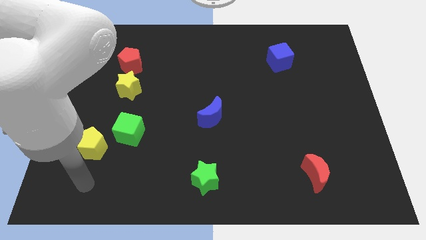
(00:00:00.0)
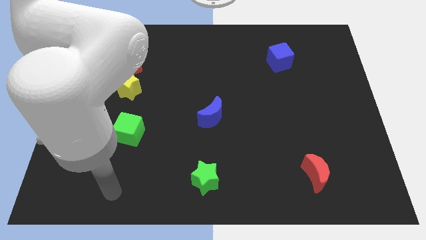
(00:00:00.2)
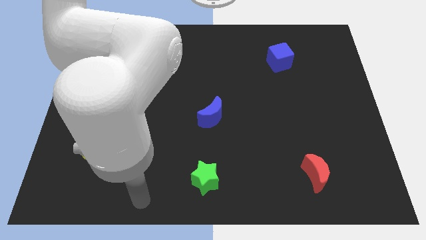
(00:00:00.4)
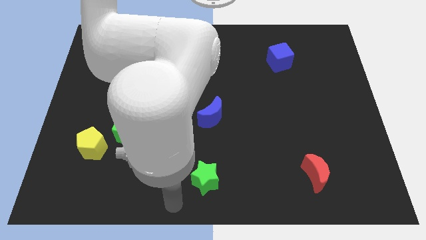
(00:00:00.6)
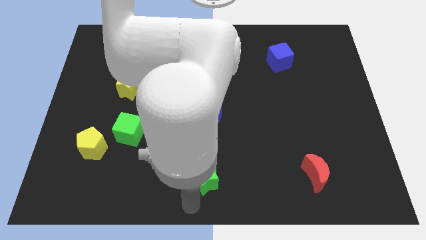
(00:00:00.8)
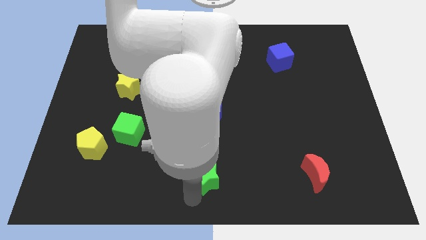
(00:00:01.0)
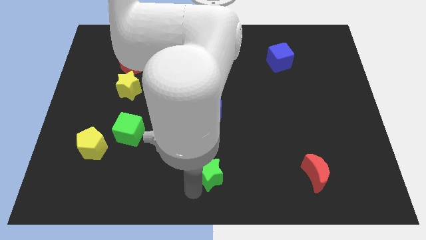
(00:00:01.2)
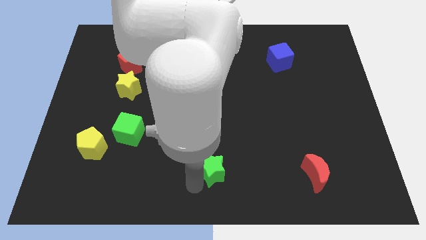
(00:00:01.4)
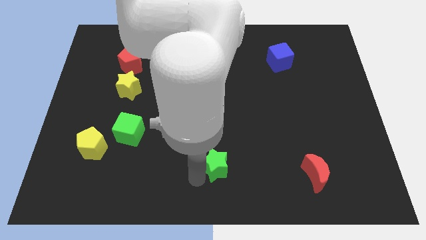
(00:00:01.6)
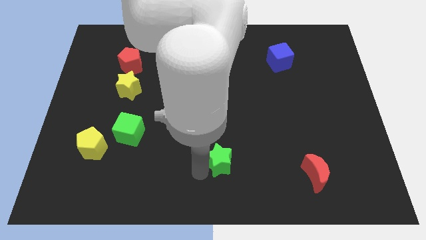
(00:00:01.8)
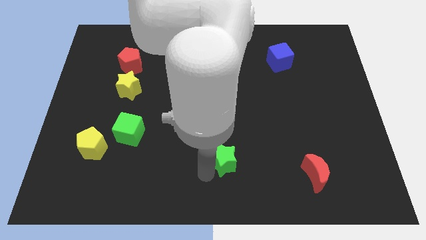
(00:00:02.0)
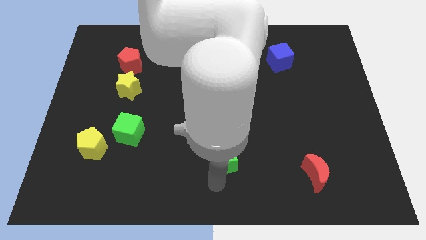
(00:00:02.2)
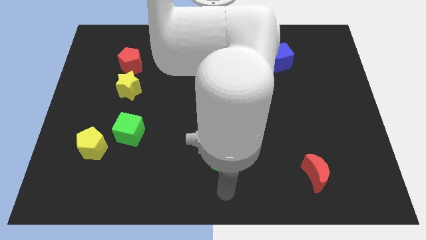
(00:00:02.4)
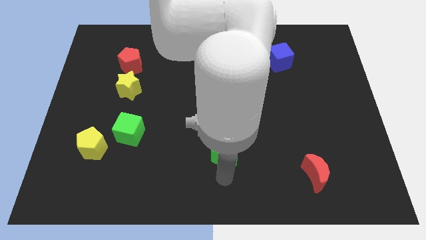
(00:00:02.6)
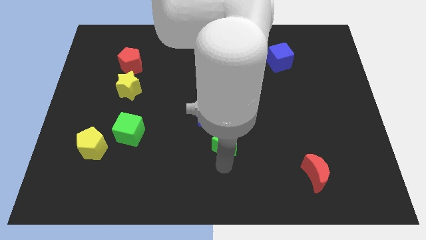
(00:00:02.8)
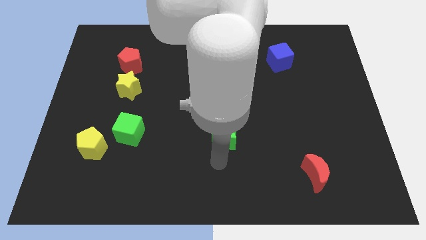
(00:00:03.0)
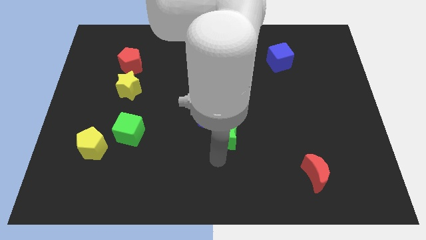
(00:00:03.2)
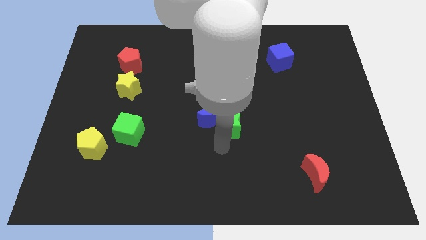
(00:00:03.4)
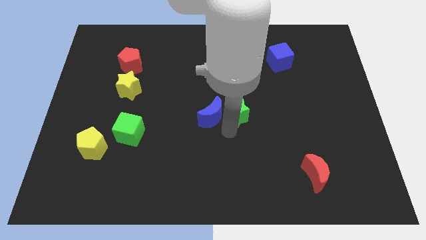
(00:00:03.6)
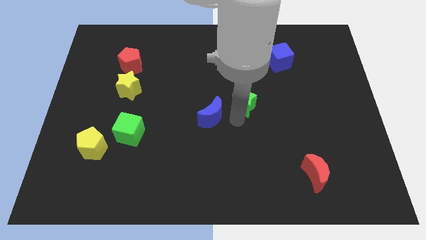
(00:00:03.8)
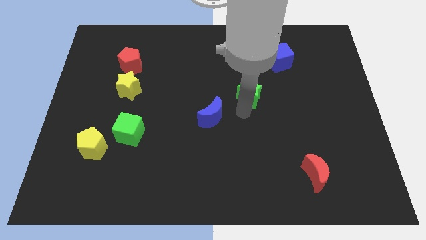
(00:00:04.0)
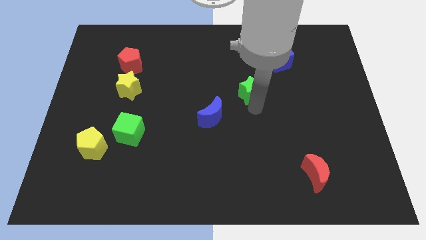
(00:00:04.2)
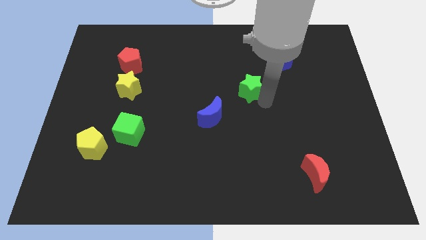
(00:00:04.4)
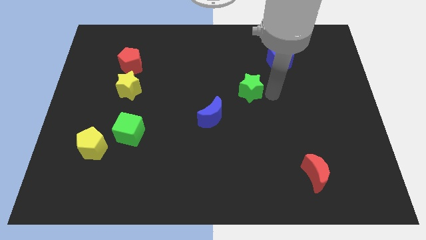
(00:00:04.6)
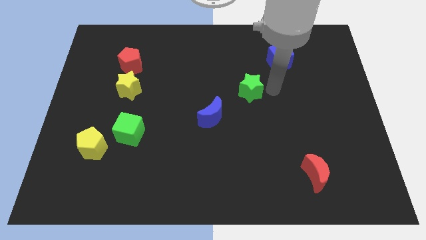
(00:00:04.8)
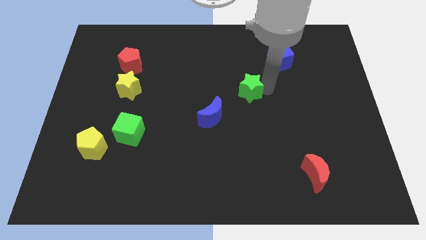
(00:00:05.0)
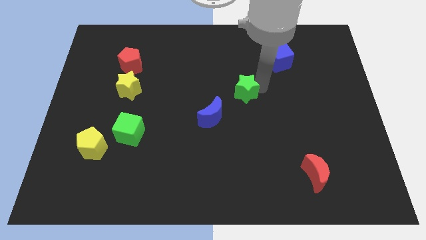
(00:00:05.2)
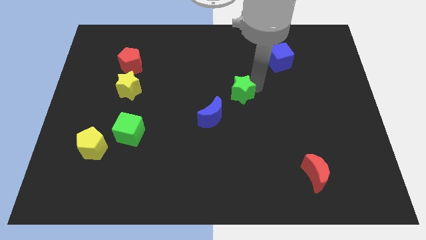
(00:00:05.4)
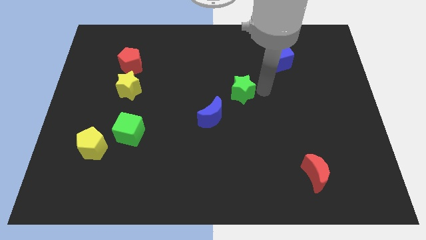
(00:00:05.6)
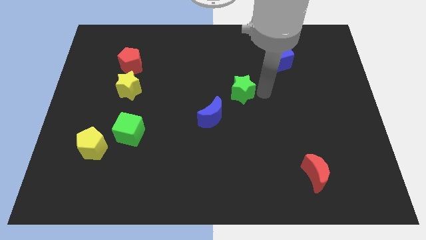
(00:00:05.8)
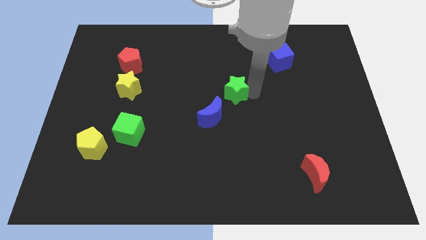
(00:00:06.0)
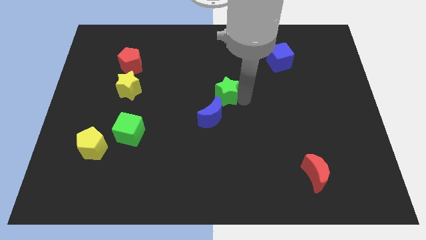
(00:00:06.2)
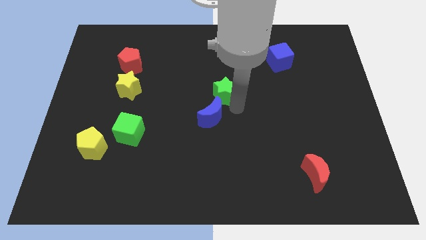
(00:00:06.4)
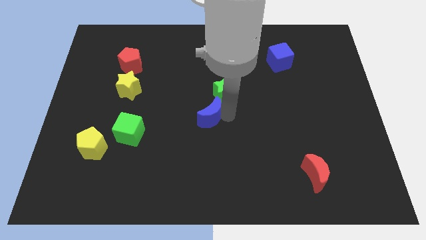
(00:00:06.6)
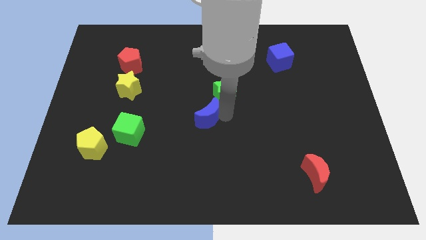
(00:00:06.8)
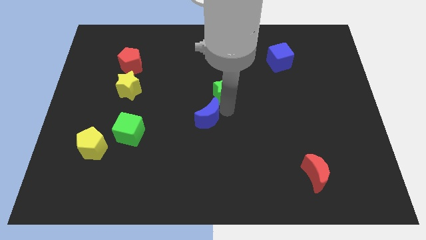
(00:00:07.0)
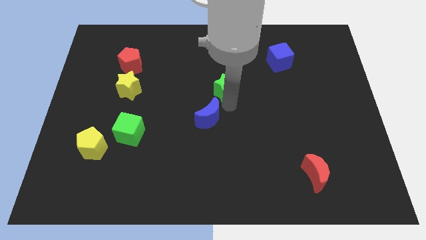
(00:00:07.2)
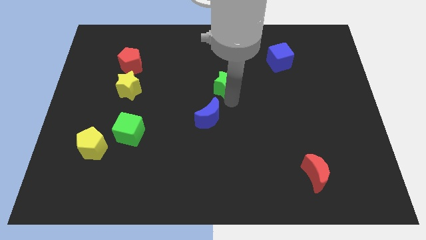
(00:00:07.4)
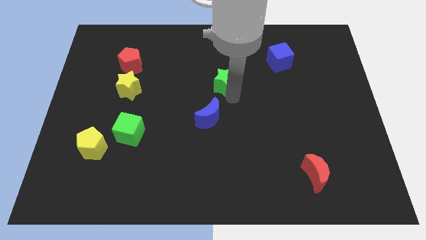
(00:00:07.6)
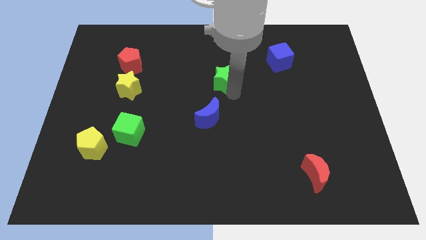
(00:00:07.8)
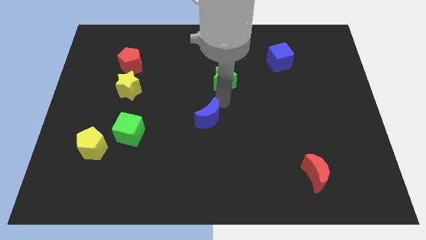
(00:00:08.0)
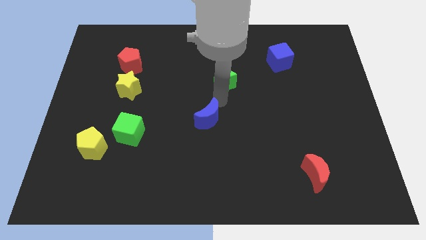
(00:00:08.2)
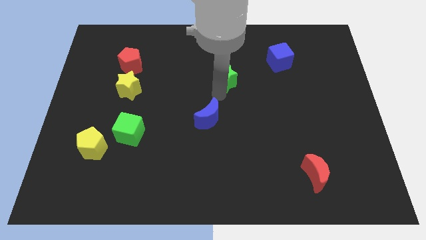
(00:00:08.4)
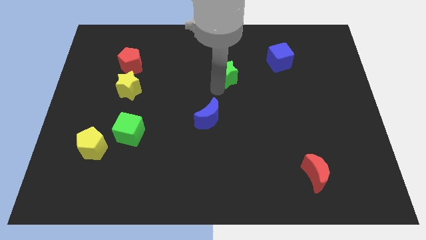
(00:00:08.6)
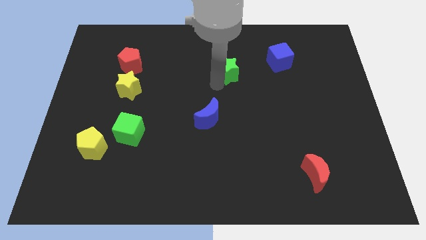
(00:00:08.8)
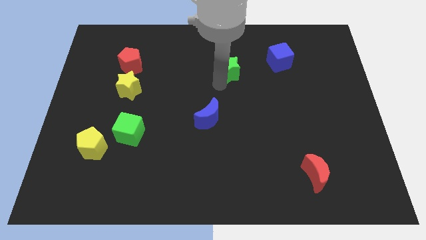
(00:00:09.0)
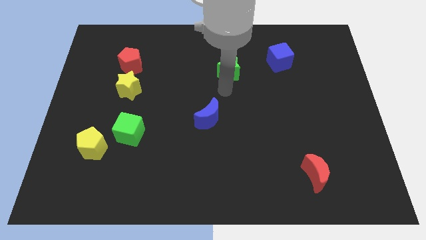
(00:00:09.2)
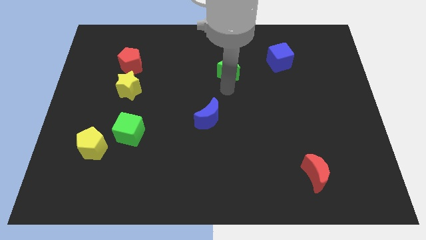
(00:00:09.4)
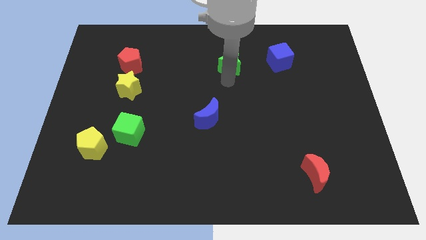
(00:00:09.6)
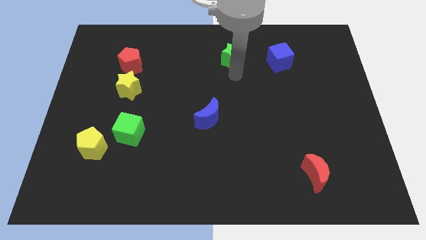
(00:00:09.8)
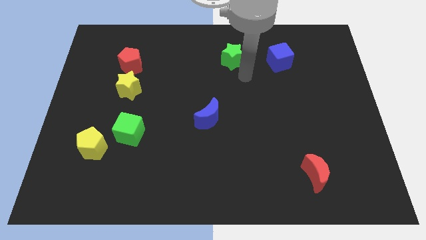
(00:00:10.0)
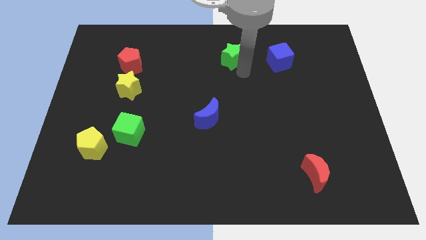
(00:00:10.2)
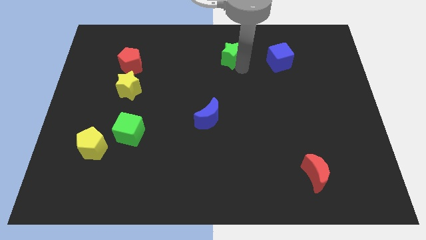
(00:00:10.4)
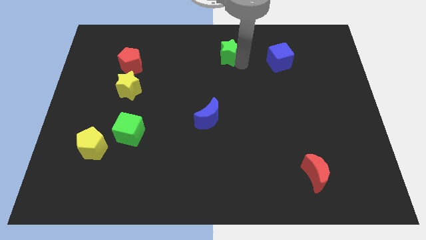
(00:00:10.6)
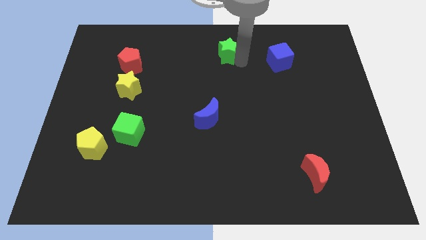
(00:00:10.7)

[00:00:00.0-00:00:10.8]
move the green star to the top

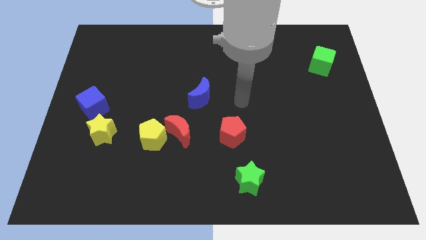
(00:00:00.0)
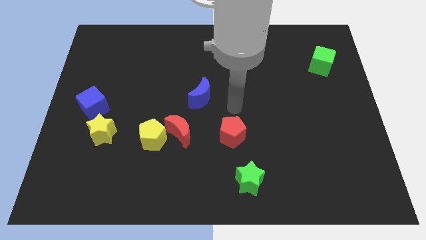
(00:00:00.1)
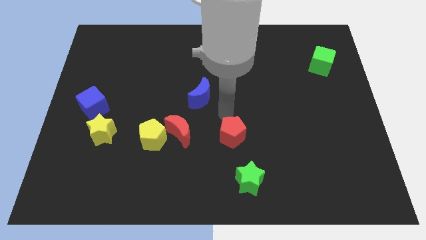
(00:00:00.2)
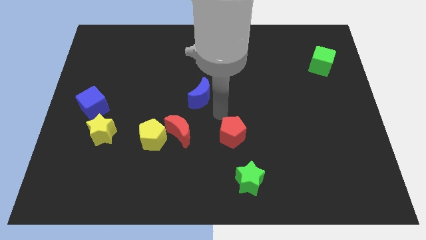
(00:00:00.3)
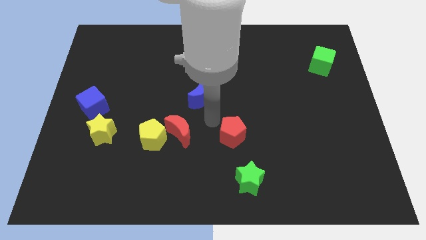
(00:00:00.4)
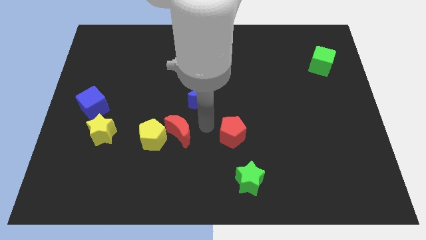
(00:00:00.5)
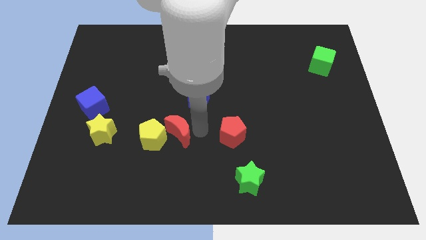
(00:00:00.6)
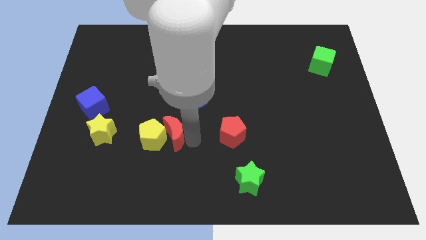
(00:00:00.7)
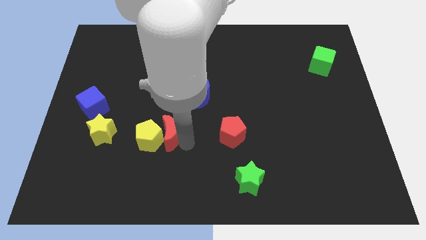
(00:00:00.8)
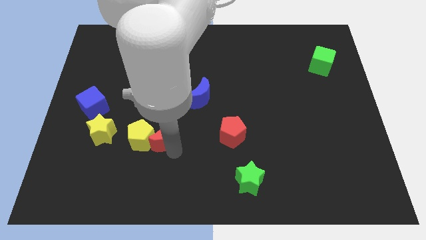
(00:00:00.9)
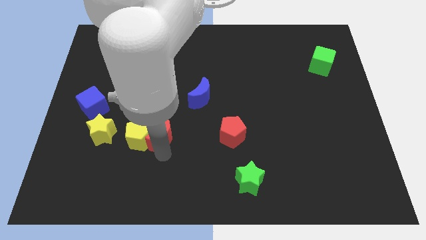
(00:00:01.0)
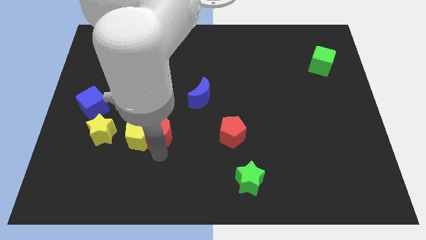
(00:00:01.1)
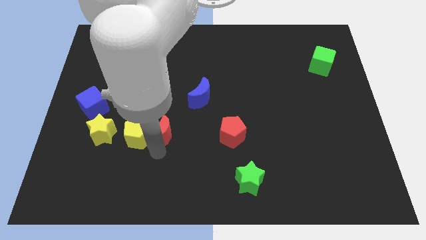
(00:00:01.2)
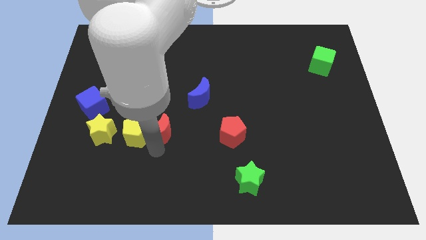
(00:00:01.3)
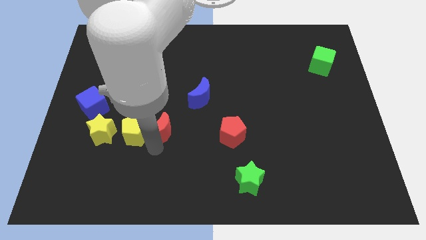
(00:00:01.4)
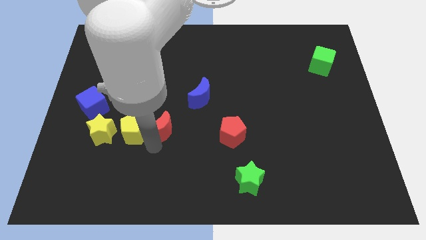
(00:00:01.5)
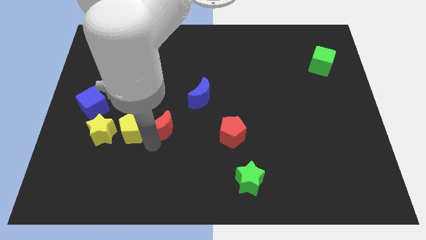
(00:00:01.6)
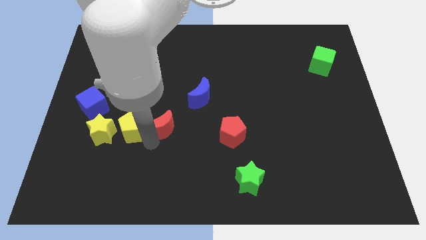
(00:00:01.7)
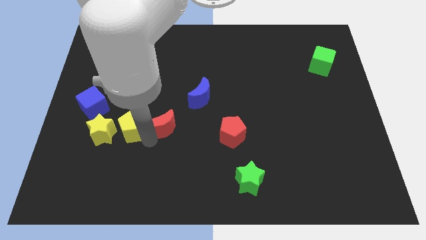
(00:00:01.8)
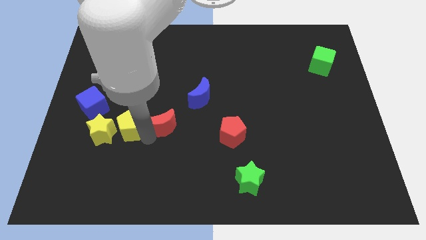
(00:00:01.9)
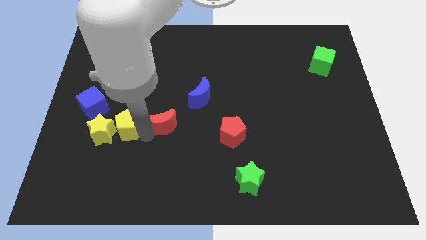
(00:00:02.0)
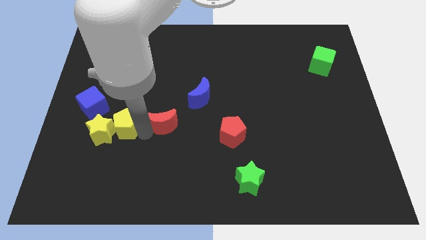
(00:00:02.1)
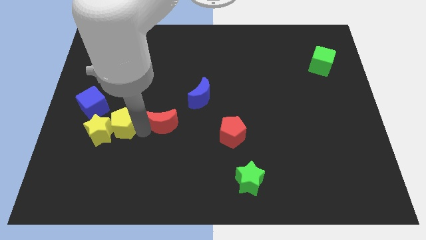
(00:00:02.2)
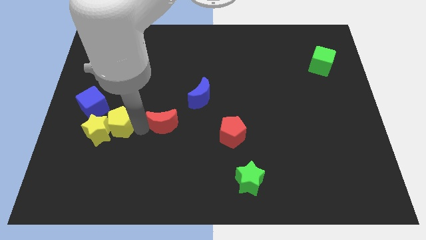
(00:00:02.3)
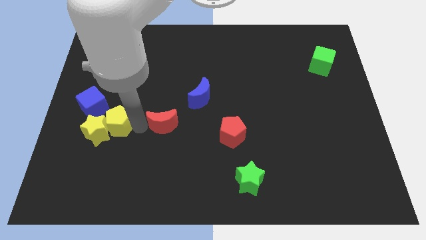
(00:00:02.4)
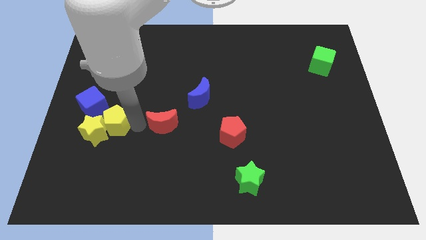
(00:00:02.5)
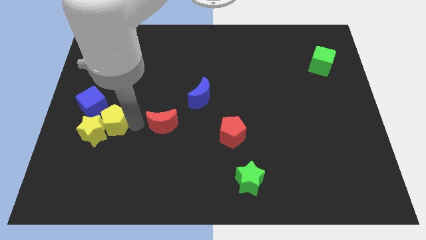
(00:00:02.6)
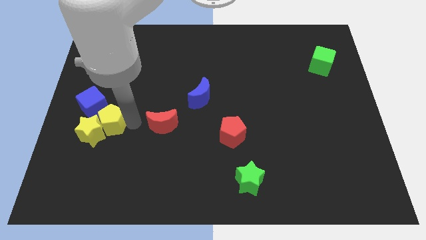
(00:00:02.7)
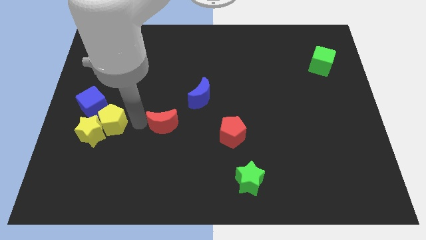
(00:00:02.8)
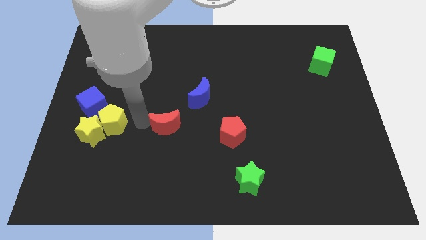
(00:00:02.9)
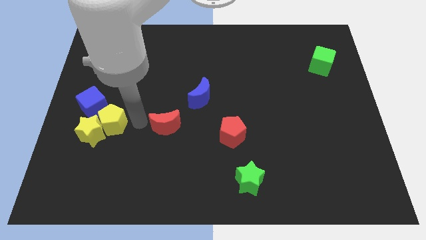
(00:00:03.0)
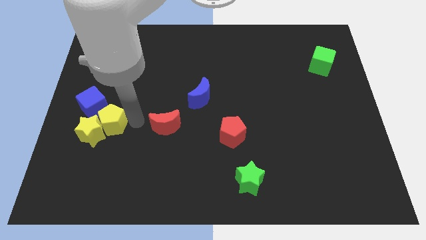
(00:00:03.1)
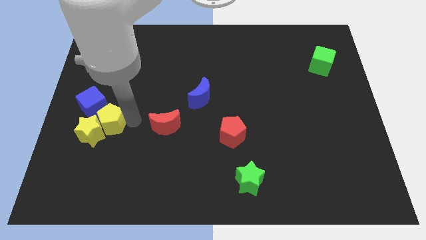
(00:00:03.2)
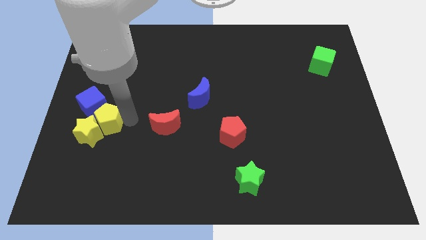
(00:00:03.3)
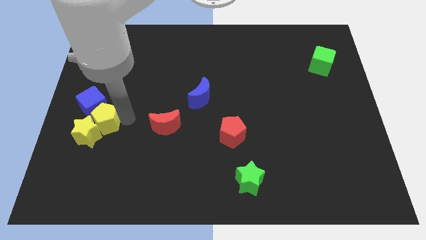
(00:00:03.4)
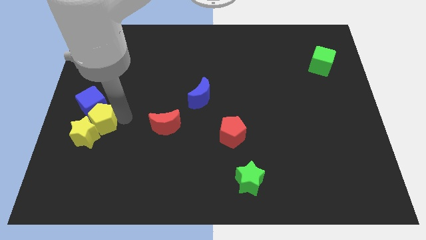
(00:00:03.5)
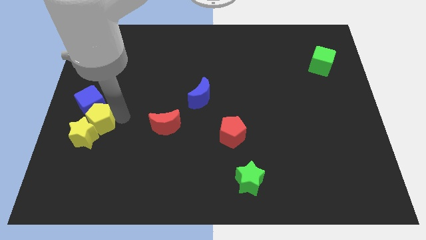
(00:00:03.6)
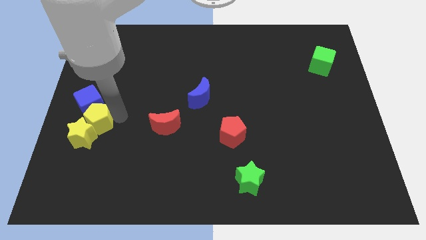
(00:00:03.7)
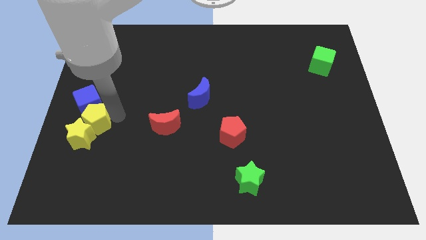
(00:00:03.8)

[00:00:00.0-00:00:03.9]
slide the yellow pentagon to the center left
